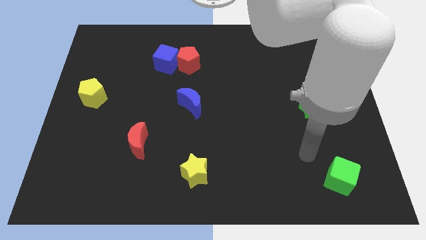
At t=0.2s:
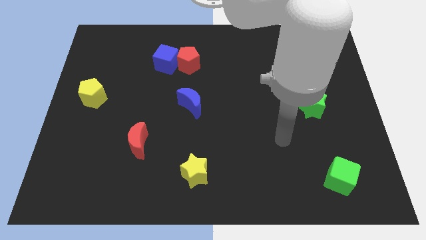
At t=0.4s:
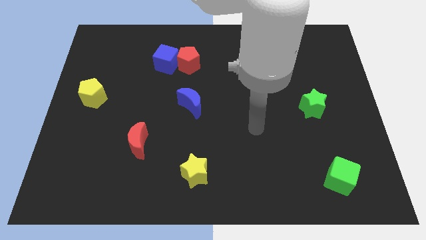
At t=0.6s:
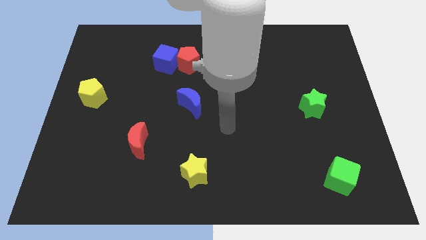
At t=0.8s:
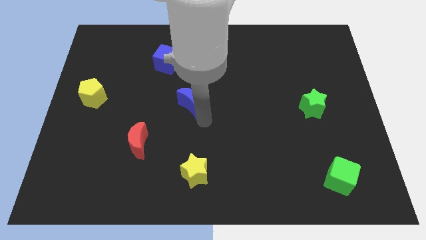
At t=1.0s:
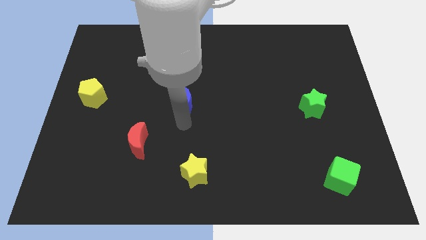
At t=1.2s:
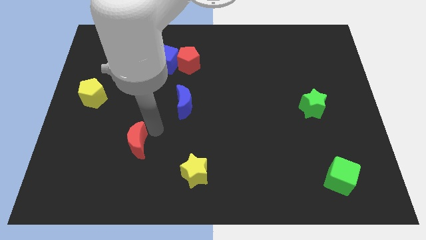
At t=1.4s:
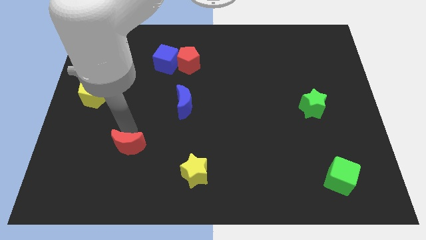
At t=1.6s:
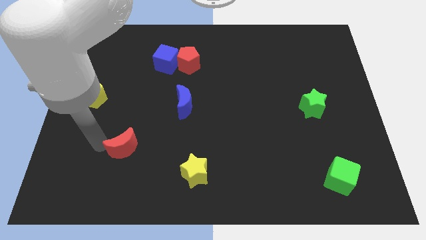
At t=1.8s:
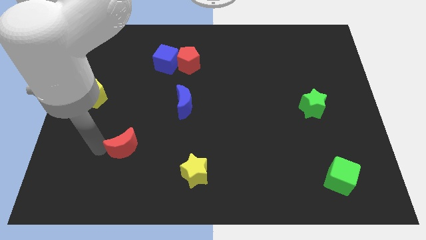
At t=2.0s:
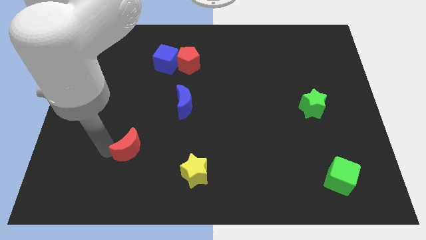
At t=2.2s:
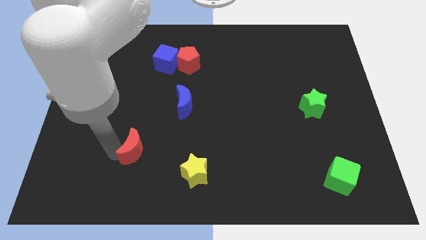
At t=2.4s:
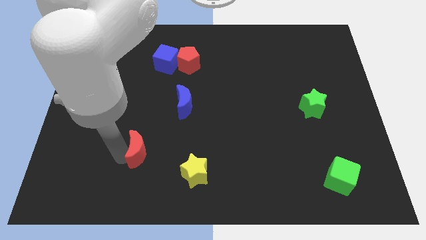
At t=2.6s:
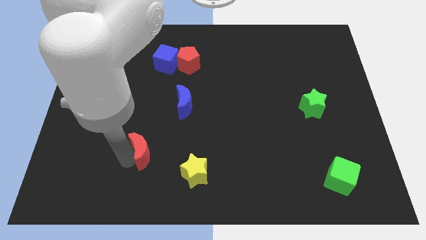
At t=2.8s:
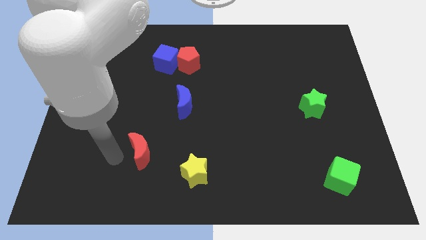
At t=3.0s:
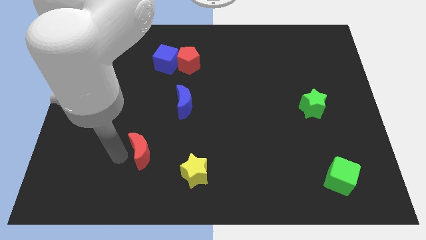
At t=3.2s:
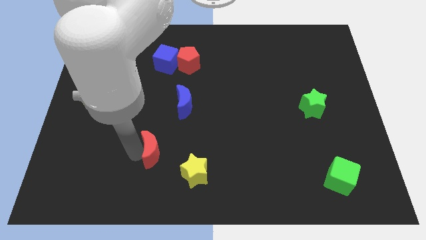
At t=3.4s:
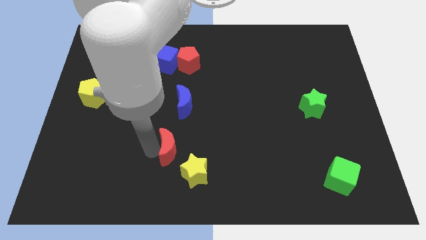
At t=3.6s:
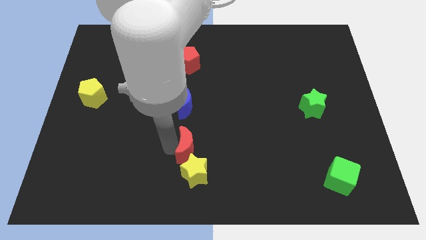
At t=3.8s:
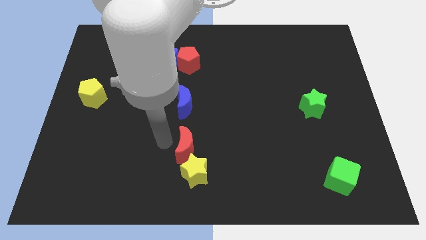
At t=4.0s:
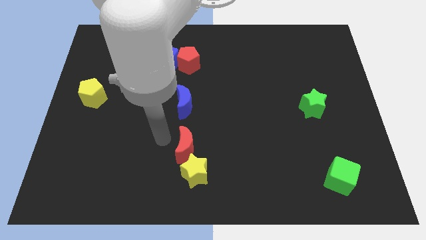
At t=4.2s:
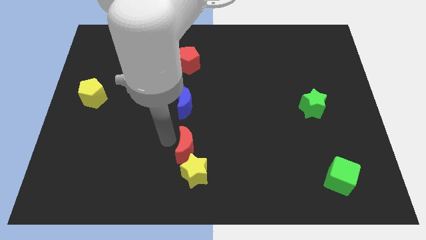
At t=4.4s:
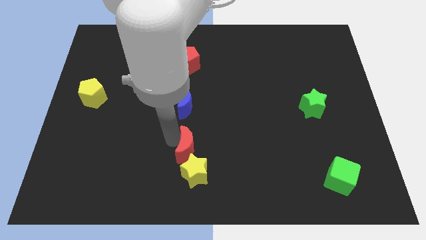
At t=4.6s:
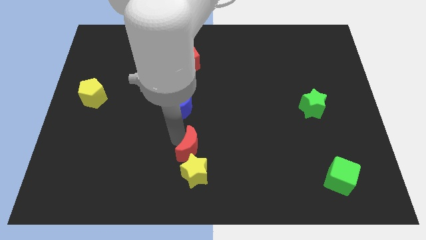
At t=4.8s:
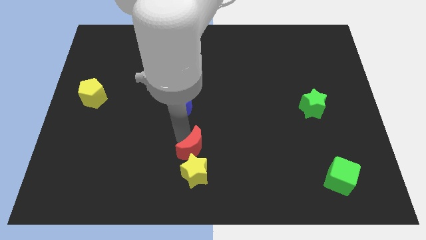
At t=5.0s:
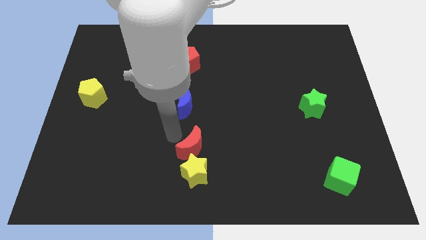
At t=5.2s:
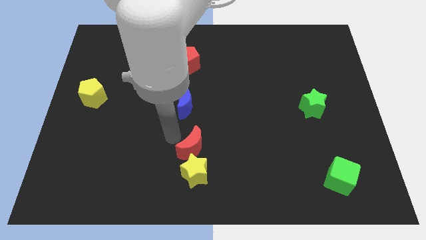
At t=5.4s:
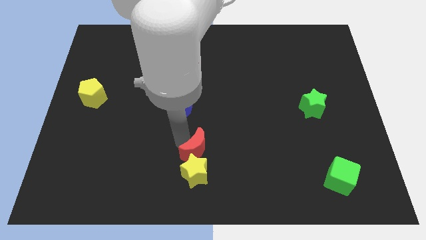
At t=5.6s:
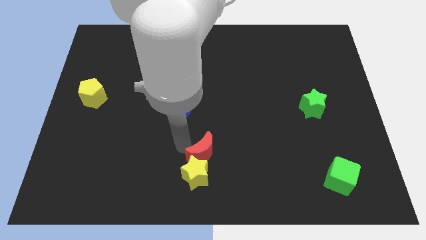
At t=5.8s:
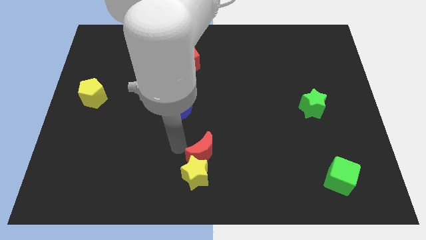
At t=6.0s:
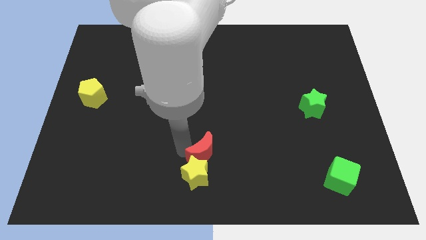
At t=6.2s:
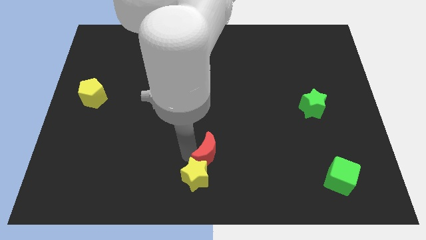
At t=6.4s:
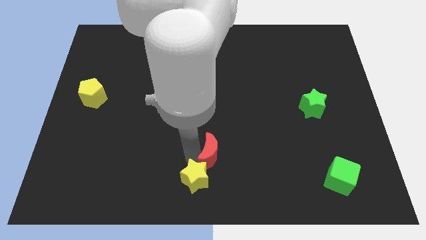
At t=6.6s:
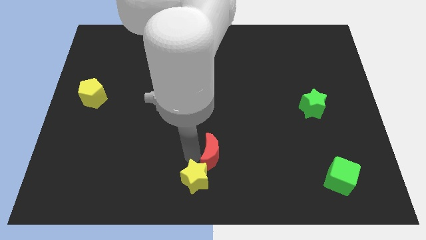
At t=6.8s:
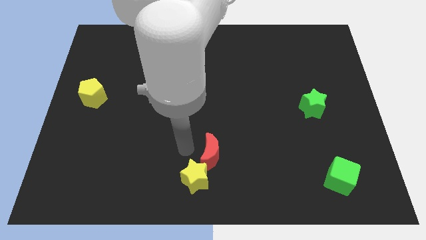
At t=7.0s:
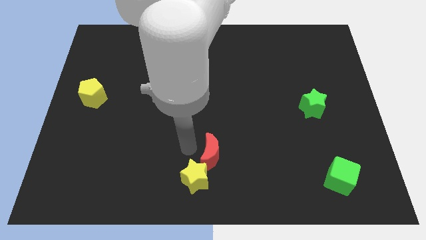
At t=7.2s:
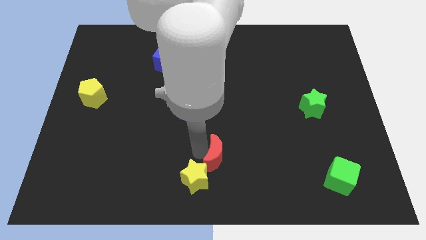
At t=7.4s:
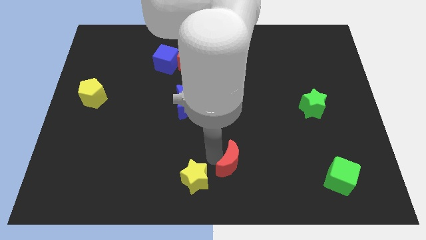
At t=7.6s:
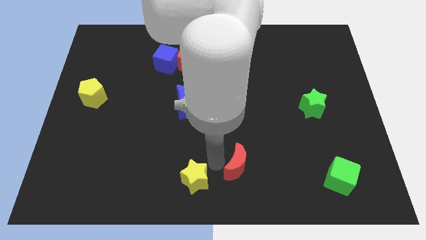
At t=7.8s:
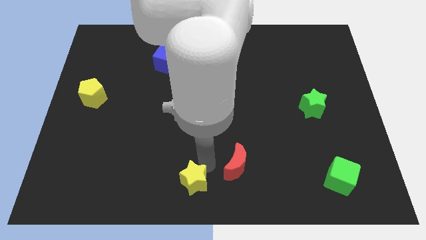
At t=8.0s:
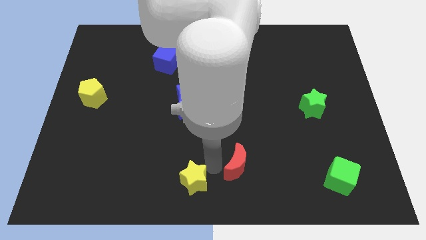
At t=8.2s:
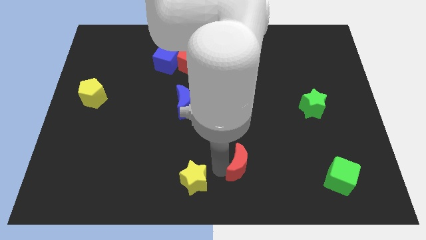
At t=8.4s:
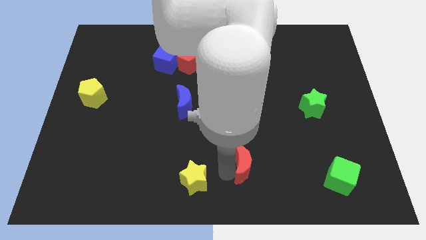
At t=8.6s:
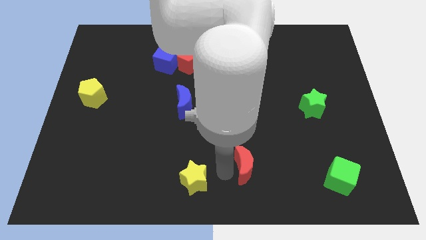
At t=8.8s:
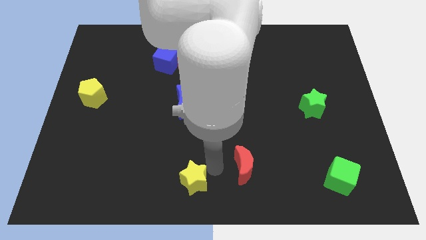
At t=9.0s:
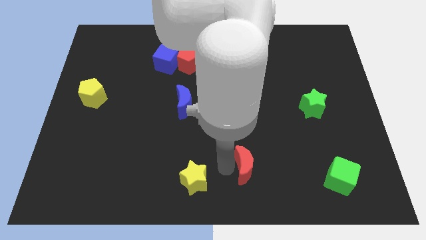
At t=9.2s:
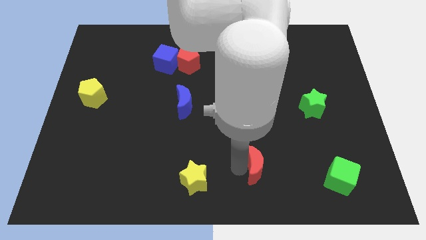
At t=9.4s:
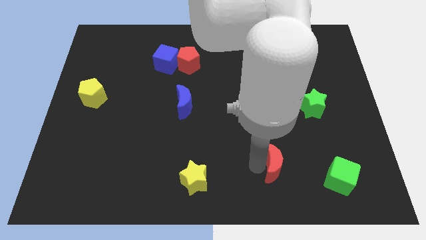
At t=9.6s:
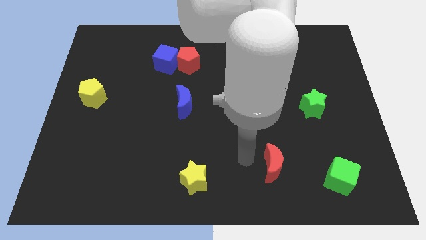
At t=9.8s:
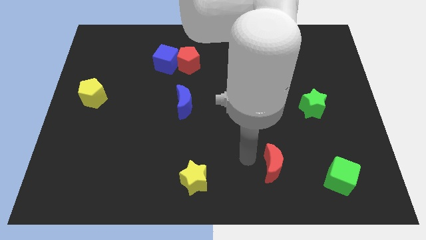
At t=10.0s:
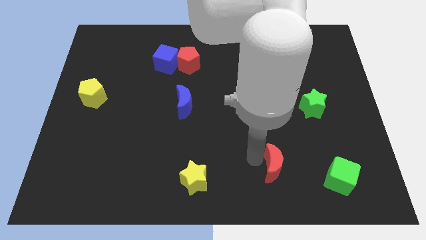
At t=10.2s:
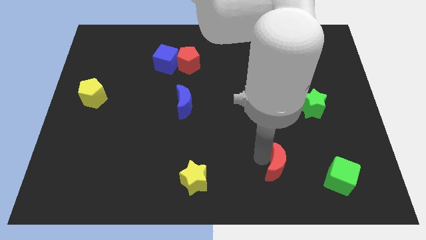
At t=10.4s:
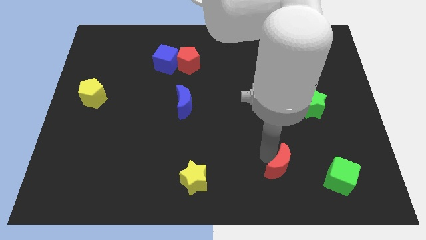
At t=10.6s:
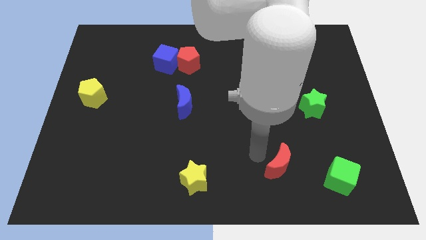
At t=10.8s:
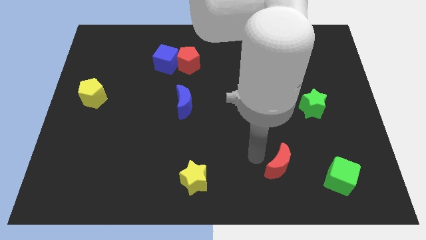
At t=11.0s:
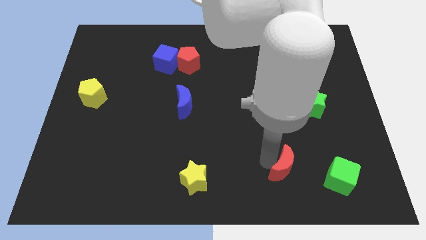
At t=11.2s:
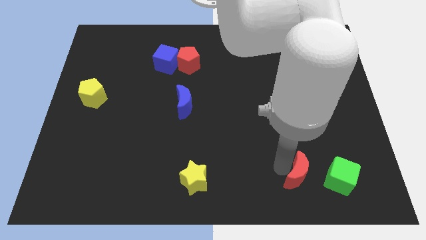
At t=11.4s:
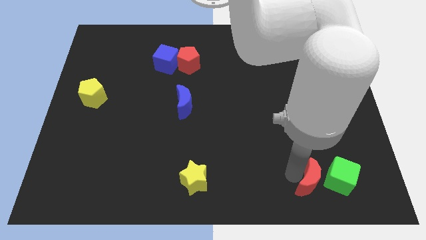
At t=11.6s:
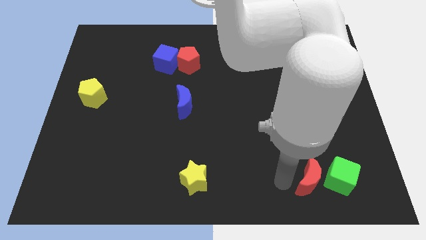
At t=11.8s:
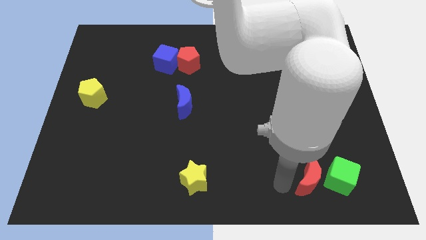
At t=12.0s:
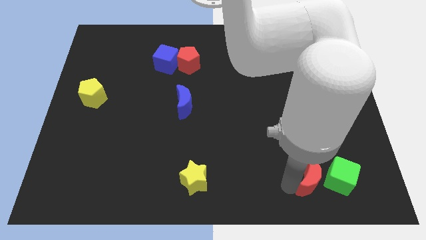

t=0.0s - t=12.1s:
move the red moon next to the green cube

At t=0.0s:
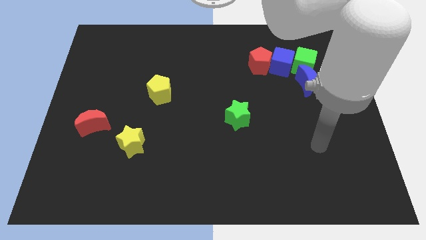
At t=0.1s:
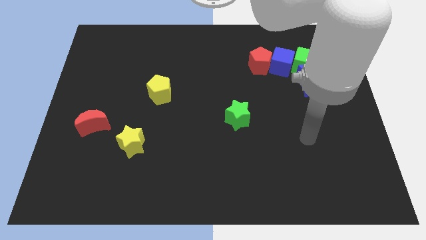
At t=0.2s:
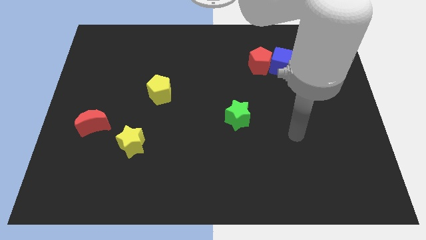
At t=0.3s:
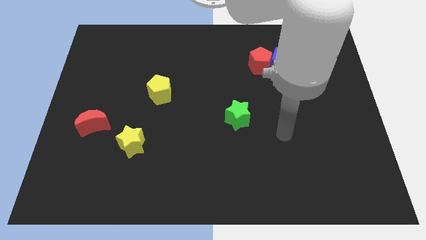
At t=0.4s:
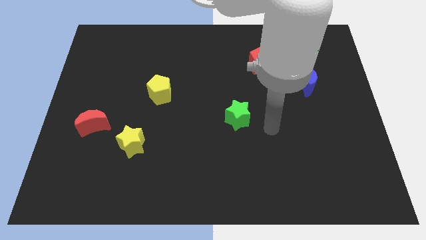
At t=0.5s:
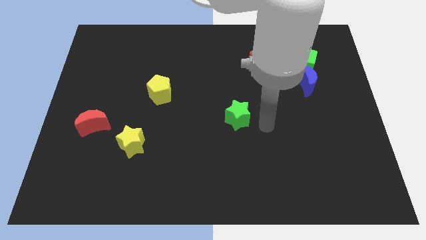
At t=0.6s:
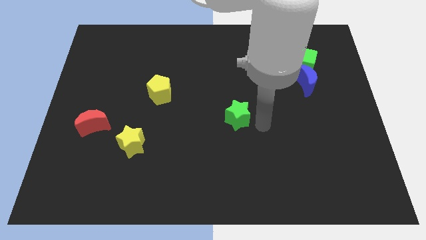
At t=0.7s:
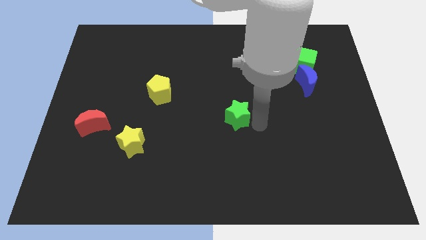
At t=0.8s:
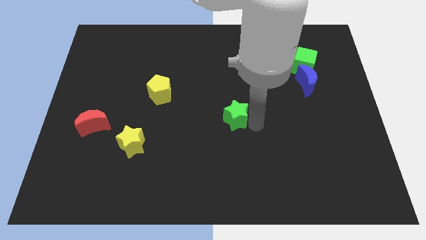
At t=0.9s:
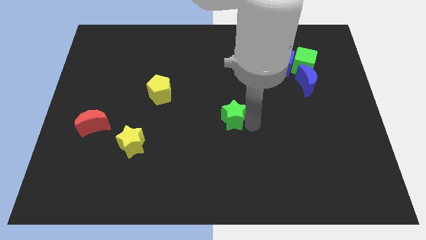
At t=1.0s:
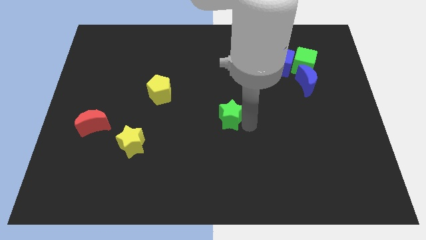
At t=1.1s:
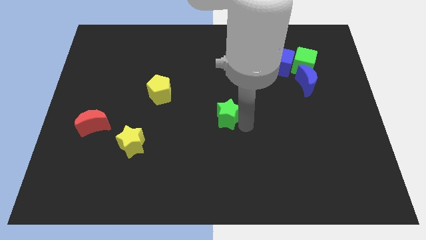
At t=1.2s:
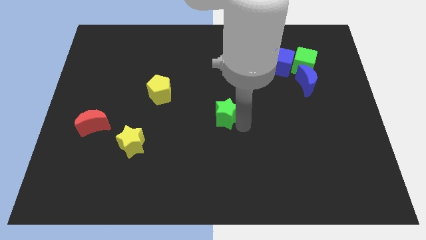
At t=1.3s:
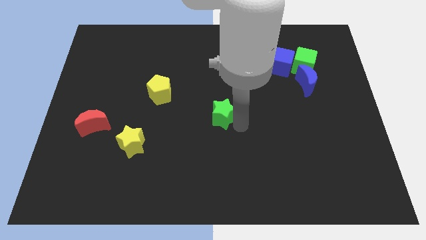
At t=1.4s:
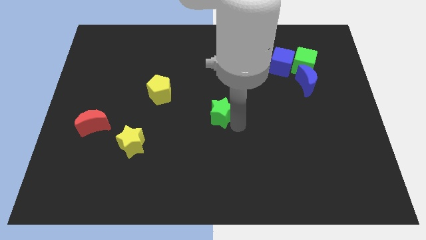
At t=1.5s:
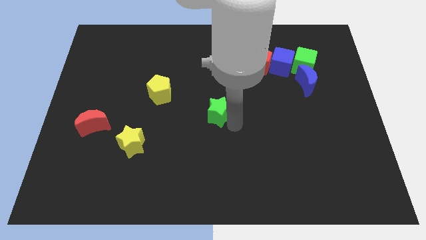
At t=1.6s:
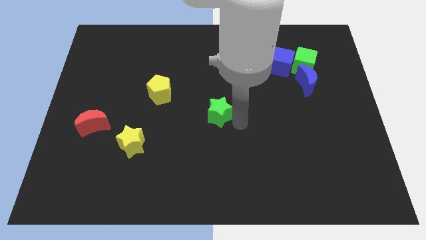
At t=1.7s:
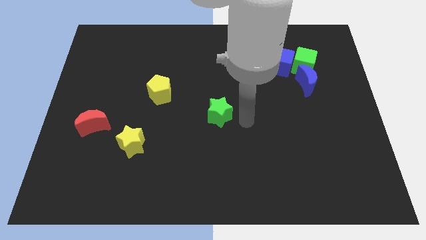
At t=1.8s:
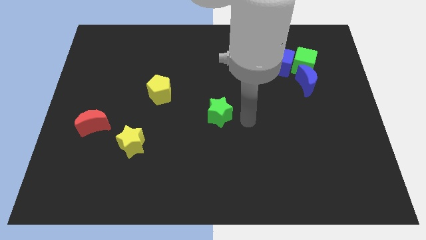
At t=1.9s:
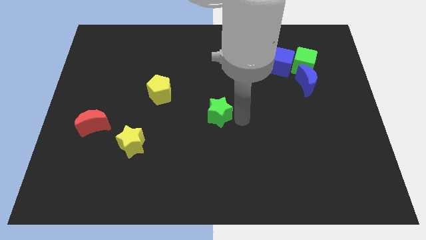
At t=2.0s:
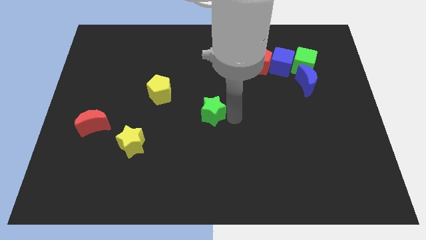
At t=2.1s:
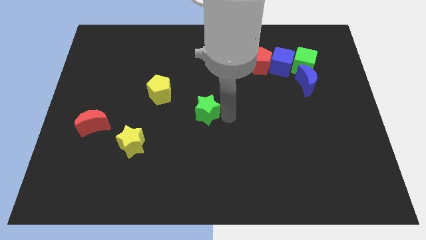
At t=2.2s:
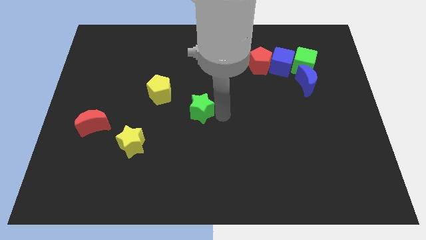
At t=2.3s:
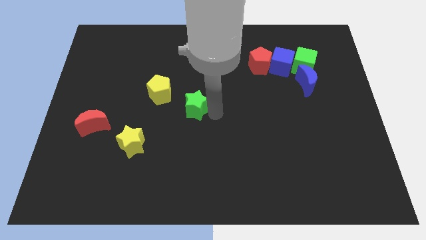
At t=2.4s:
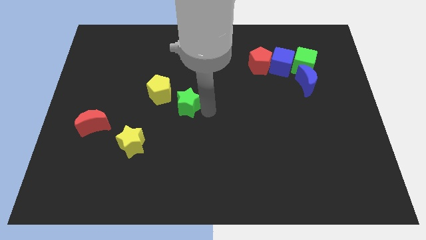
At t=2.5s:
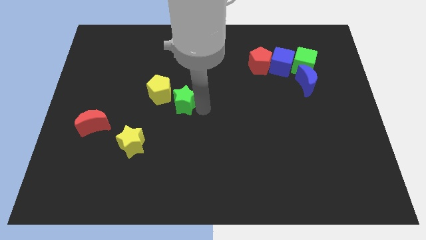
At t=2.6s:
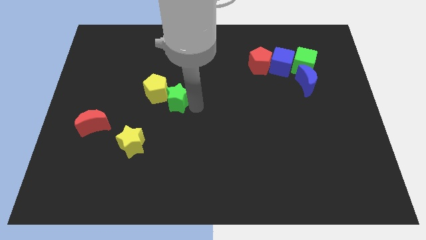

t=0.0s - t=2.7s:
push the green star towards the yellow pentagon
